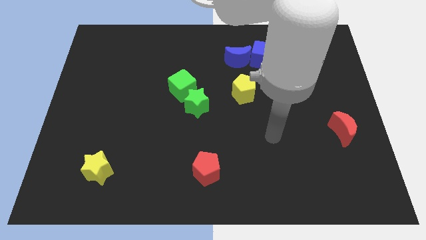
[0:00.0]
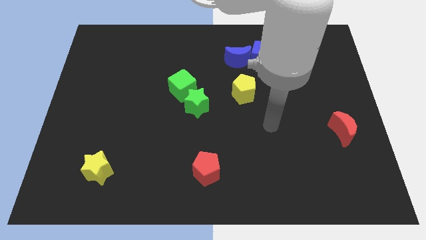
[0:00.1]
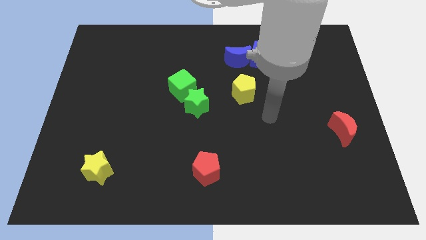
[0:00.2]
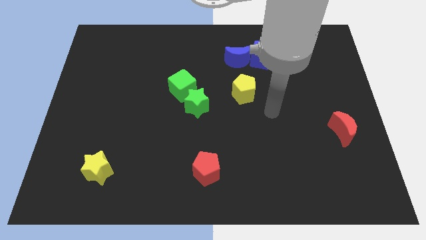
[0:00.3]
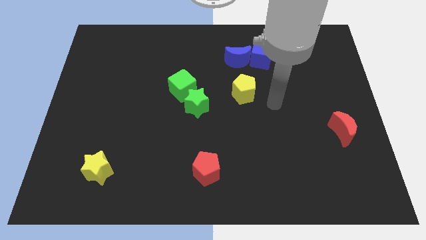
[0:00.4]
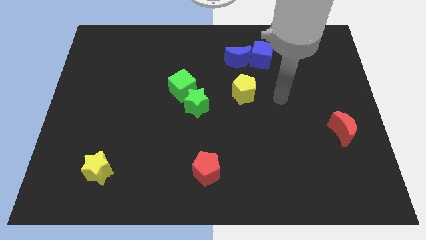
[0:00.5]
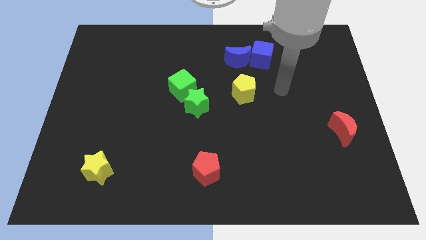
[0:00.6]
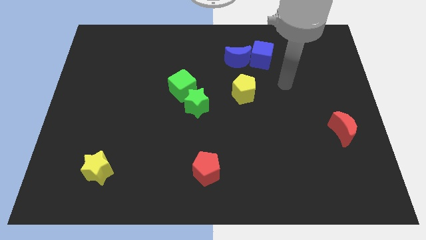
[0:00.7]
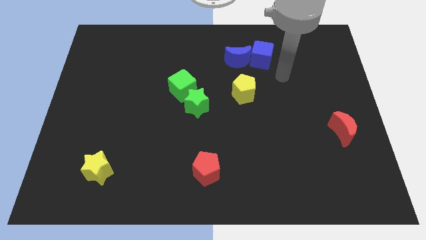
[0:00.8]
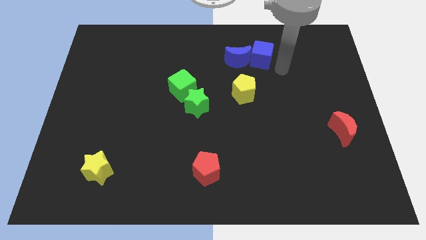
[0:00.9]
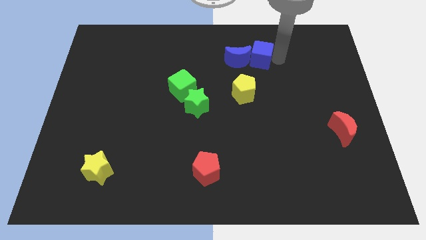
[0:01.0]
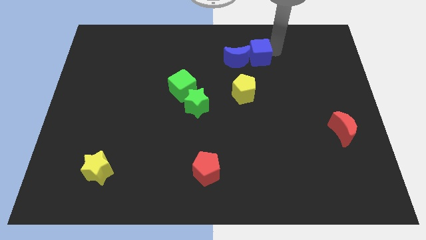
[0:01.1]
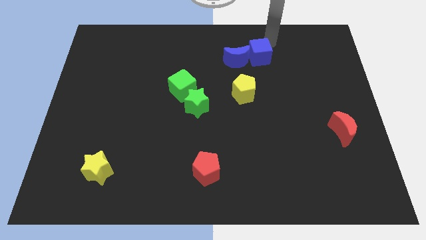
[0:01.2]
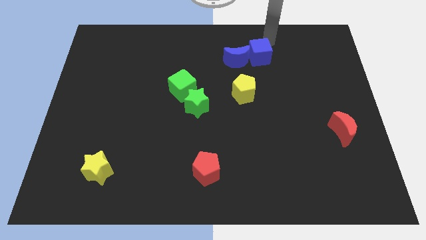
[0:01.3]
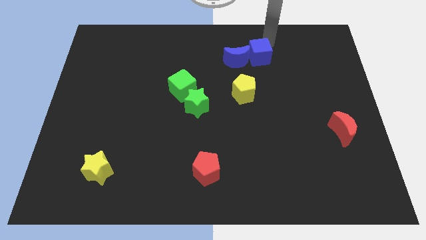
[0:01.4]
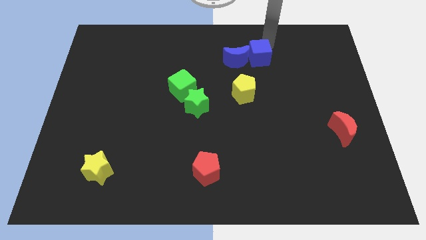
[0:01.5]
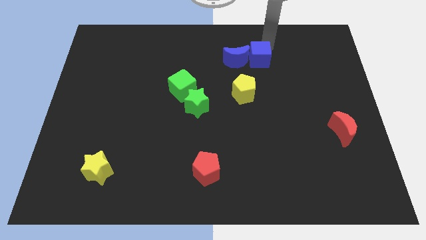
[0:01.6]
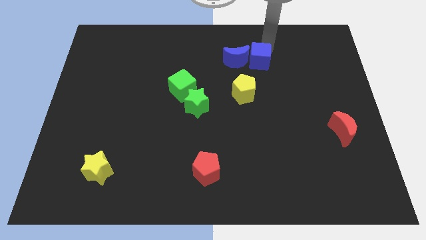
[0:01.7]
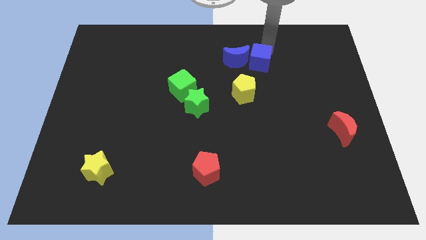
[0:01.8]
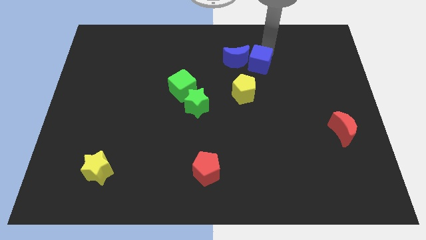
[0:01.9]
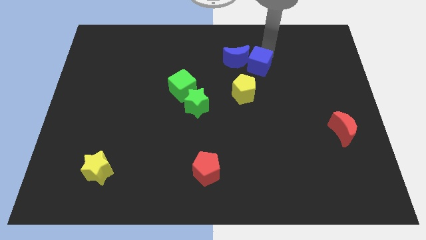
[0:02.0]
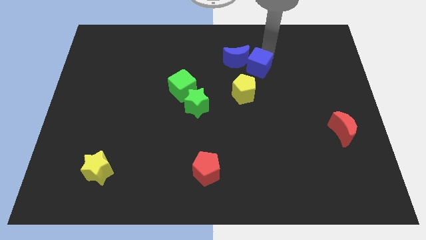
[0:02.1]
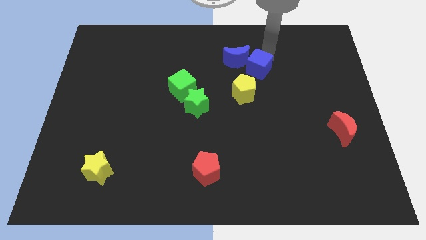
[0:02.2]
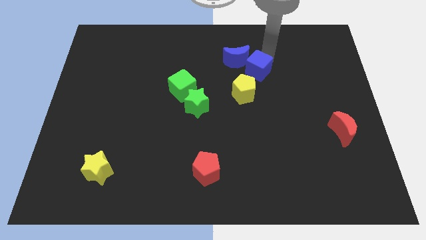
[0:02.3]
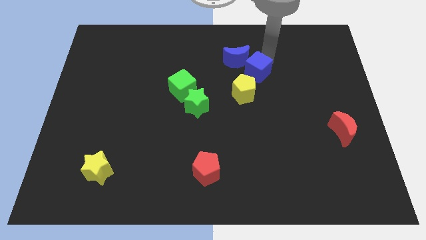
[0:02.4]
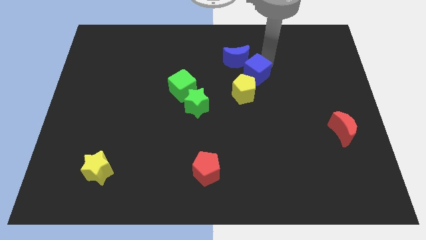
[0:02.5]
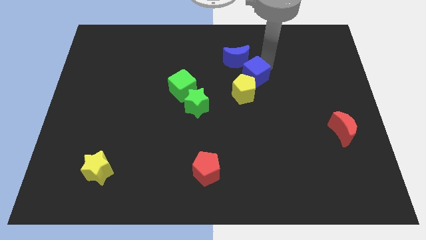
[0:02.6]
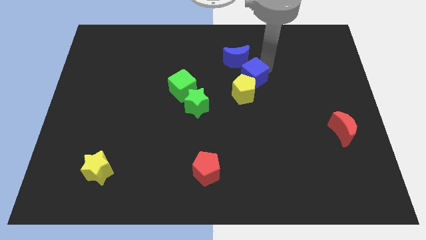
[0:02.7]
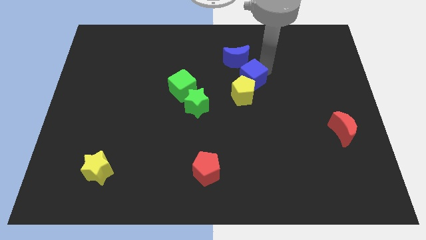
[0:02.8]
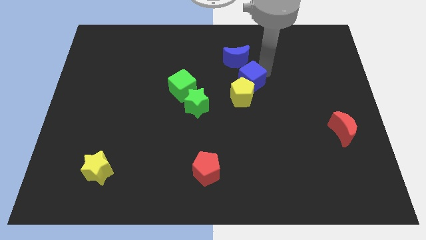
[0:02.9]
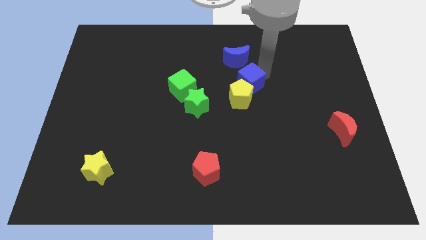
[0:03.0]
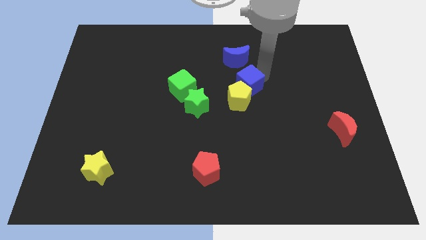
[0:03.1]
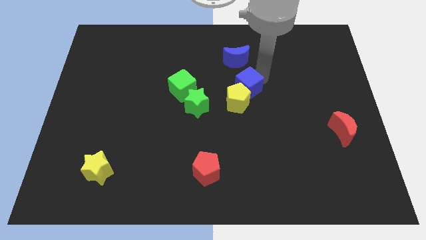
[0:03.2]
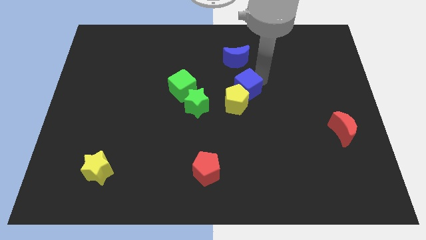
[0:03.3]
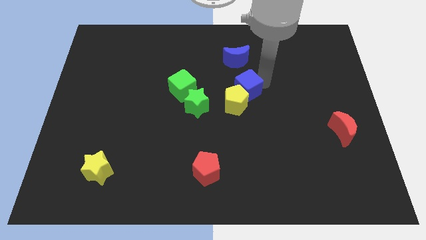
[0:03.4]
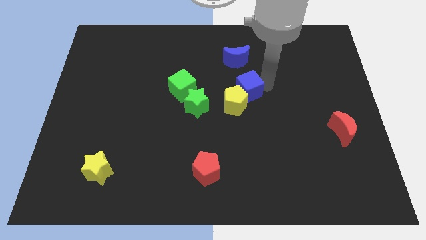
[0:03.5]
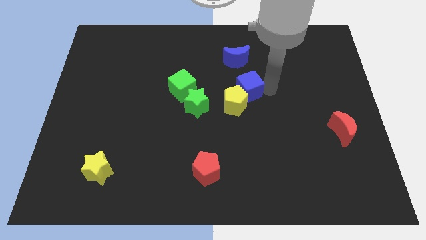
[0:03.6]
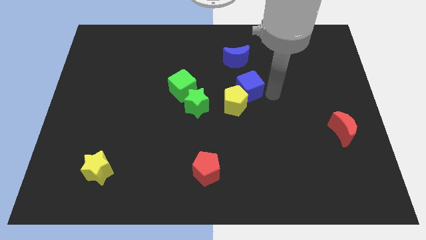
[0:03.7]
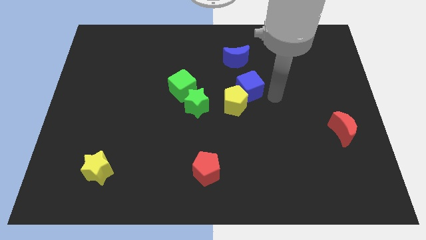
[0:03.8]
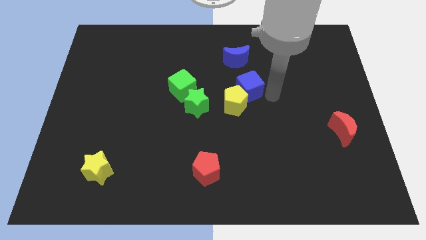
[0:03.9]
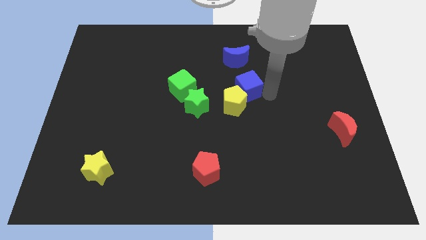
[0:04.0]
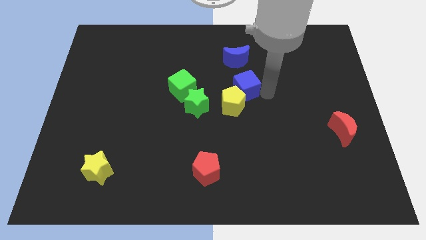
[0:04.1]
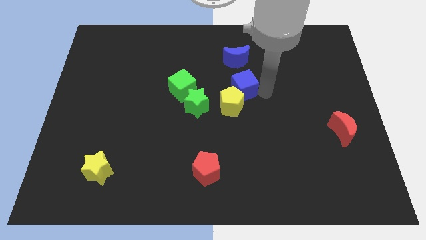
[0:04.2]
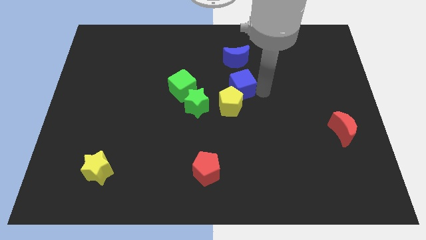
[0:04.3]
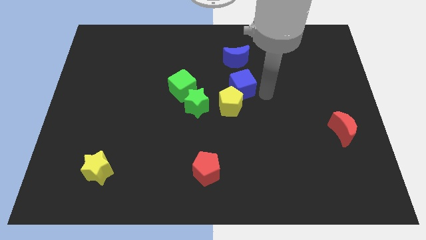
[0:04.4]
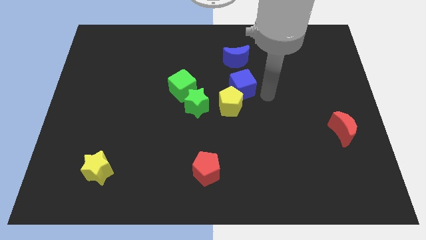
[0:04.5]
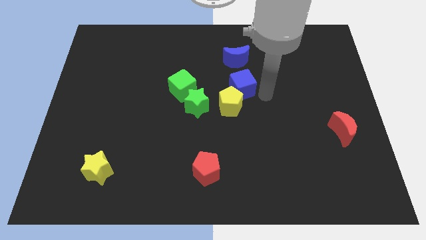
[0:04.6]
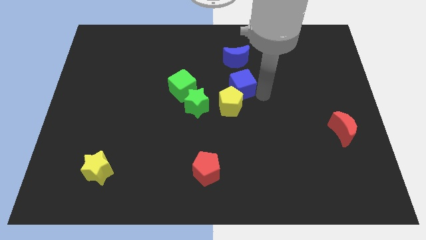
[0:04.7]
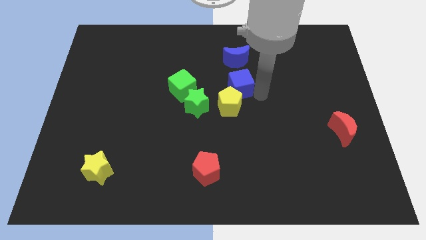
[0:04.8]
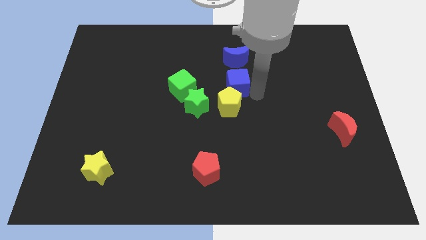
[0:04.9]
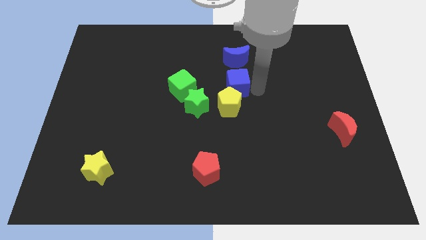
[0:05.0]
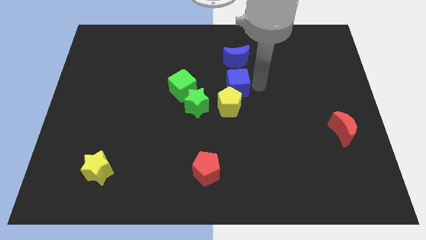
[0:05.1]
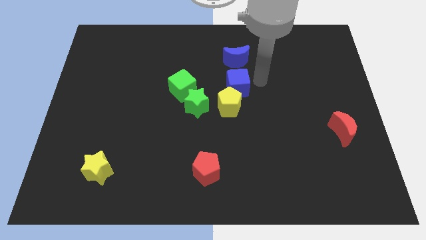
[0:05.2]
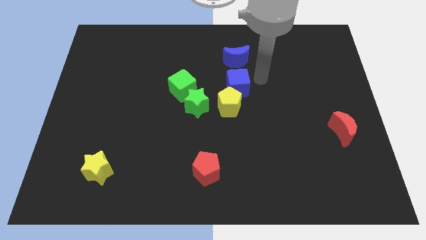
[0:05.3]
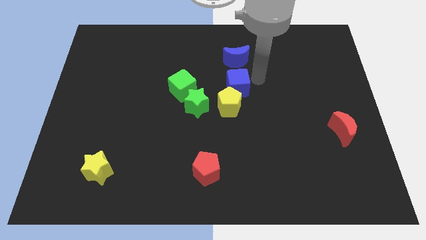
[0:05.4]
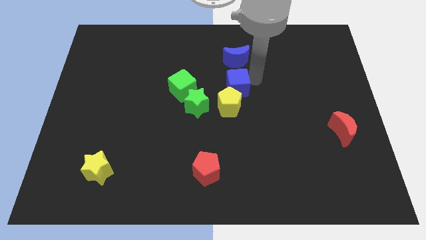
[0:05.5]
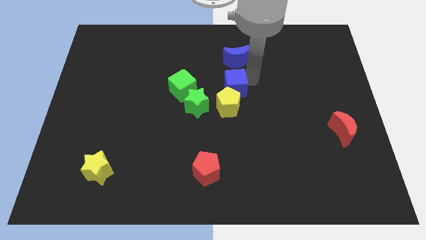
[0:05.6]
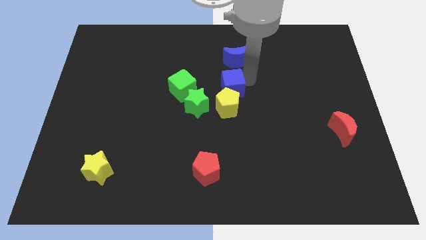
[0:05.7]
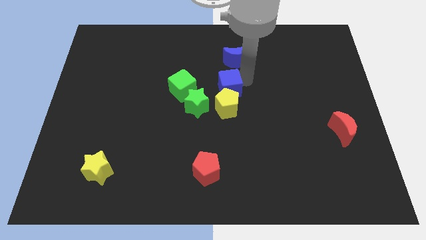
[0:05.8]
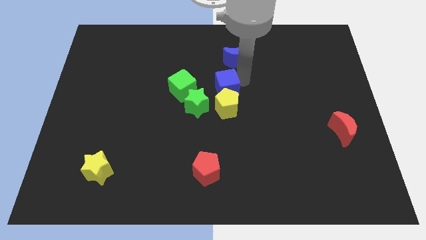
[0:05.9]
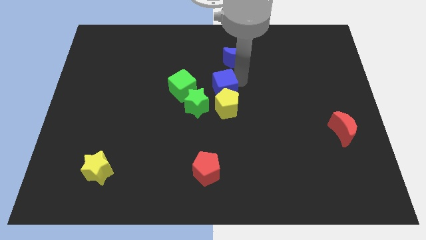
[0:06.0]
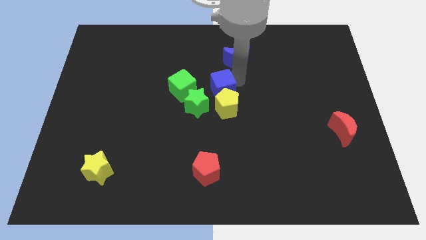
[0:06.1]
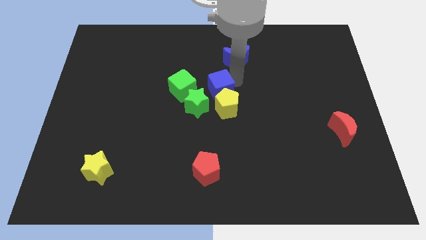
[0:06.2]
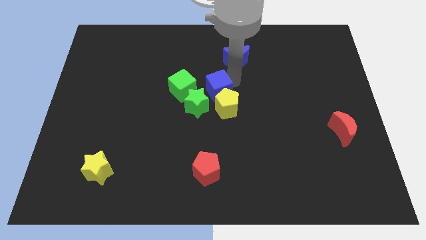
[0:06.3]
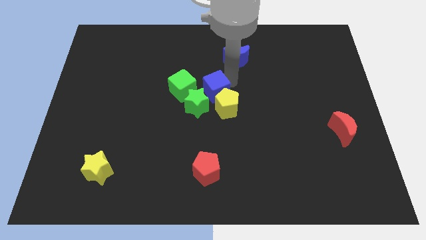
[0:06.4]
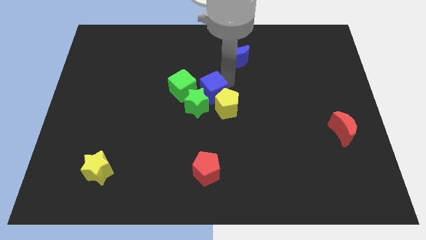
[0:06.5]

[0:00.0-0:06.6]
put the blue cube next to the green star
